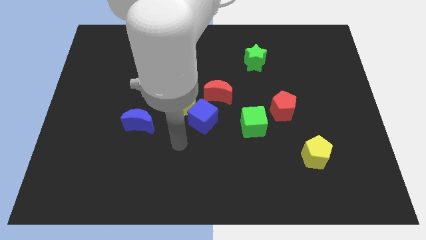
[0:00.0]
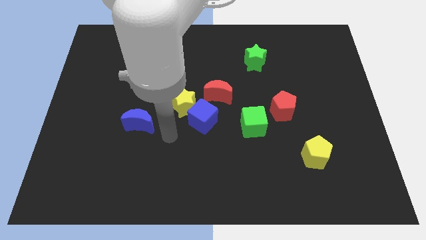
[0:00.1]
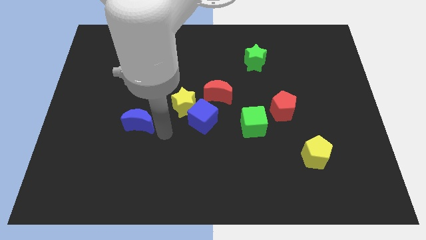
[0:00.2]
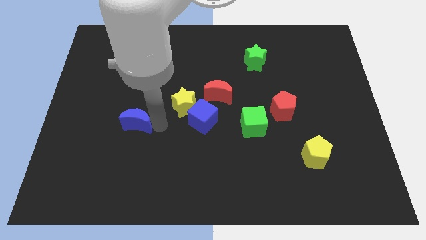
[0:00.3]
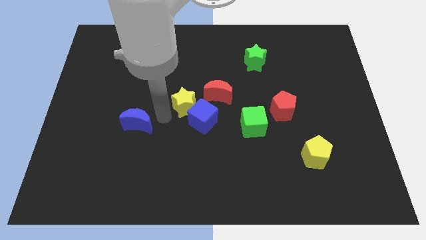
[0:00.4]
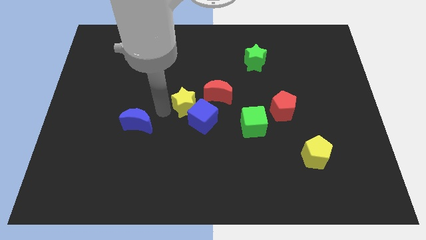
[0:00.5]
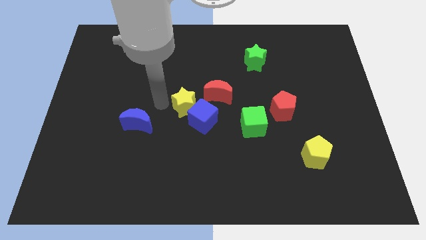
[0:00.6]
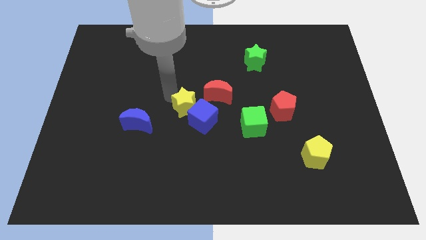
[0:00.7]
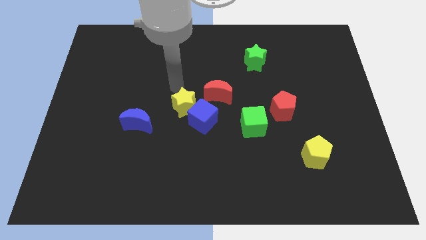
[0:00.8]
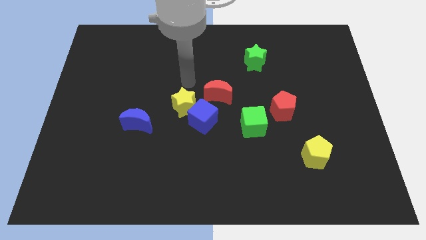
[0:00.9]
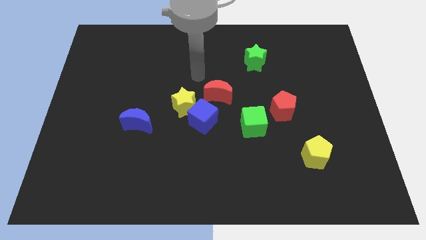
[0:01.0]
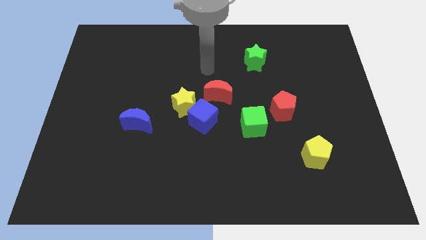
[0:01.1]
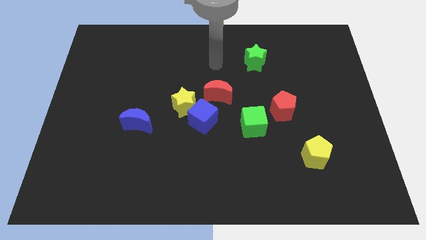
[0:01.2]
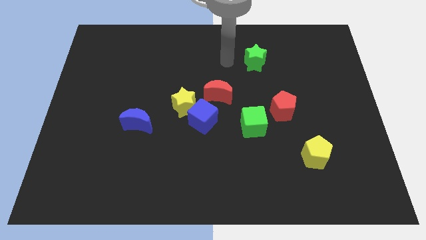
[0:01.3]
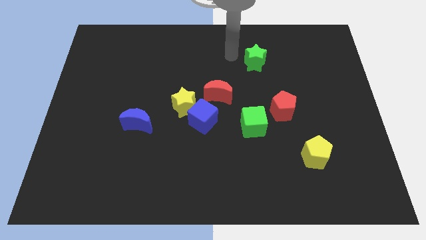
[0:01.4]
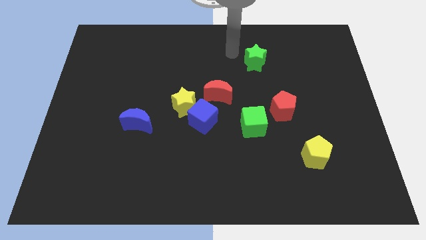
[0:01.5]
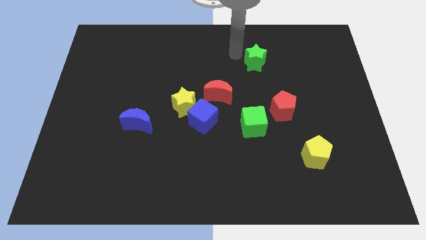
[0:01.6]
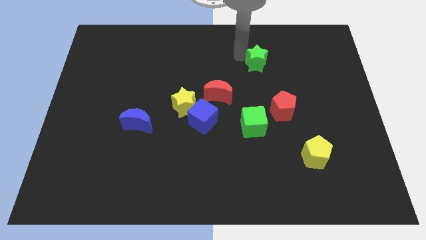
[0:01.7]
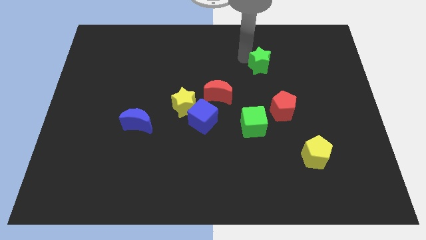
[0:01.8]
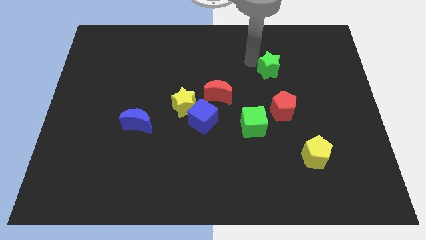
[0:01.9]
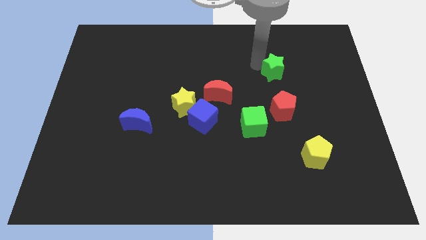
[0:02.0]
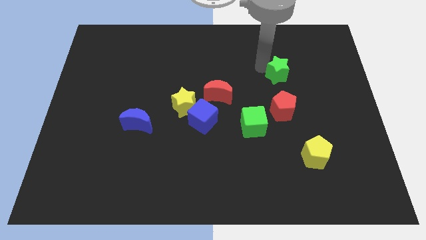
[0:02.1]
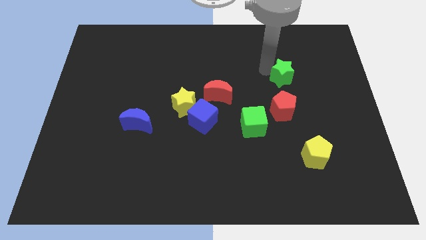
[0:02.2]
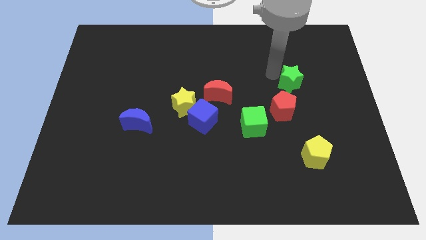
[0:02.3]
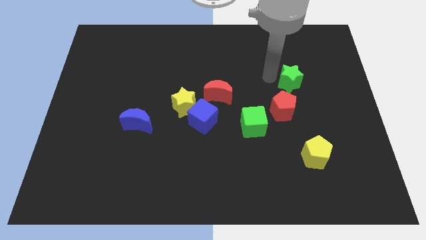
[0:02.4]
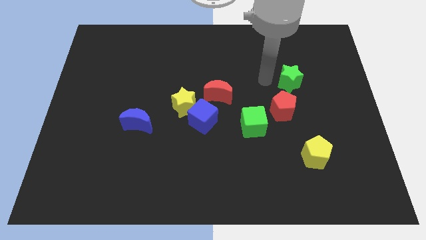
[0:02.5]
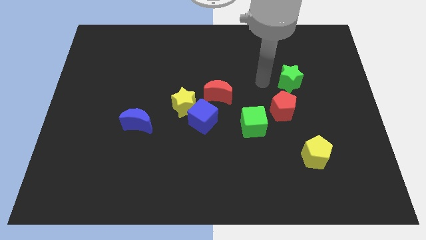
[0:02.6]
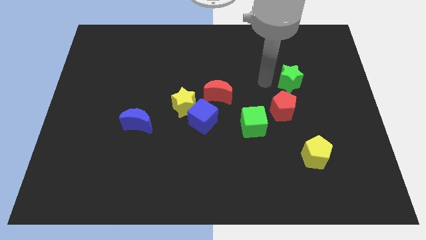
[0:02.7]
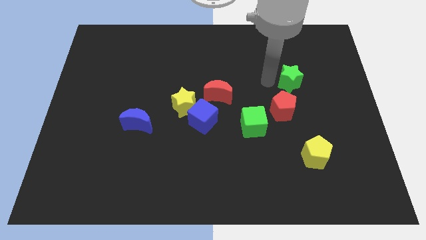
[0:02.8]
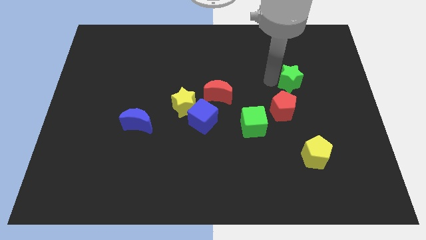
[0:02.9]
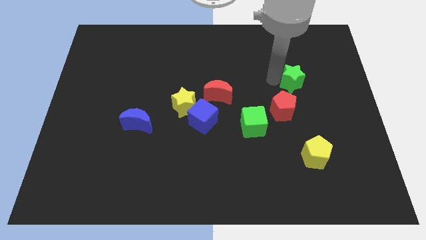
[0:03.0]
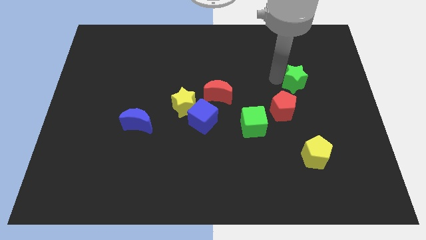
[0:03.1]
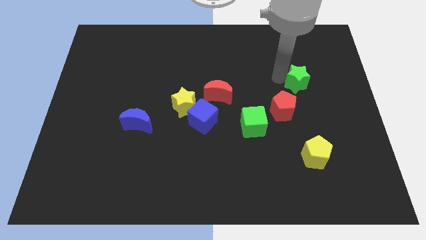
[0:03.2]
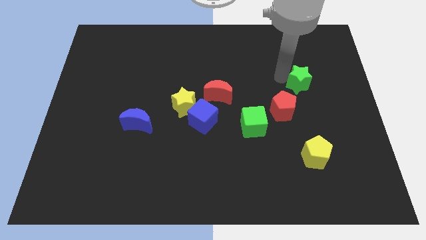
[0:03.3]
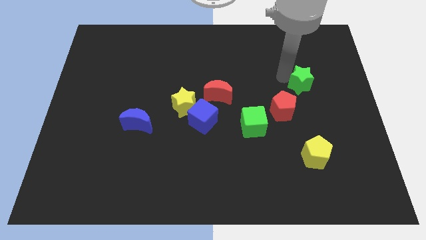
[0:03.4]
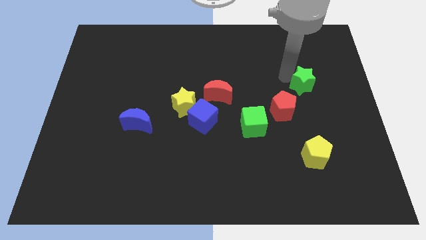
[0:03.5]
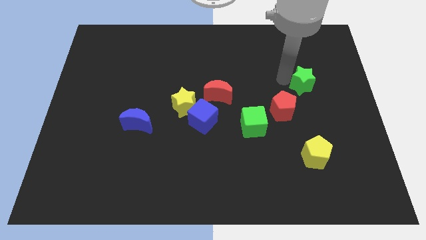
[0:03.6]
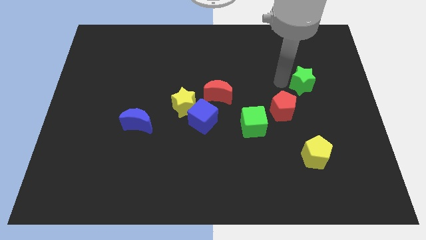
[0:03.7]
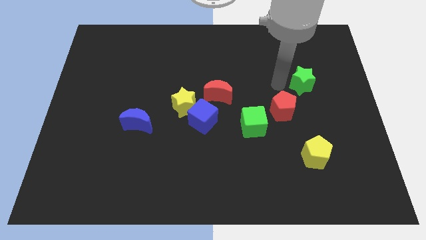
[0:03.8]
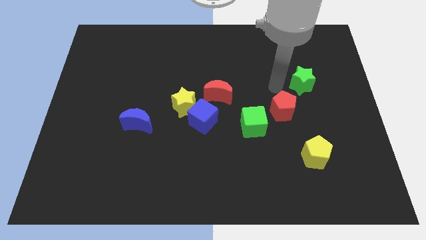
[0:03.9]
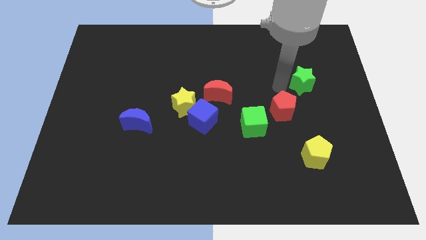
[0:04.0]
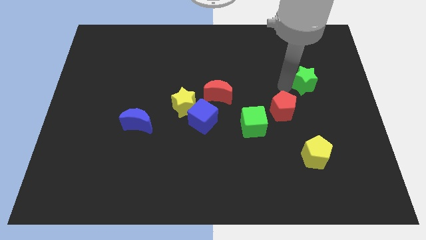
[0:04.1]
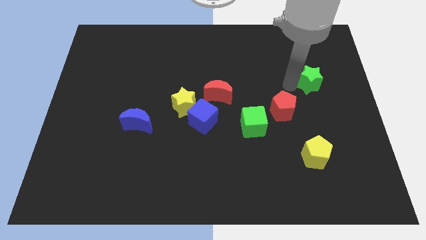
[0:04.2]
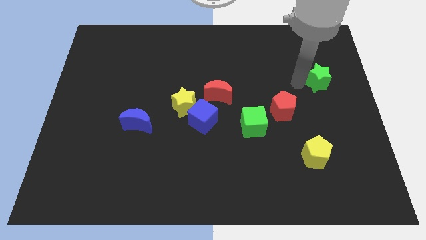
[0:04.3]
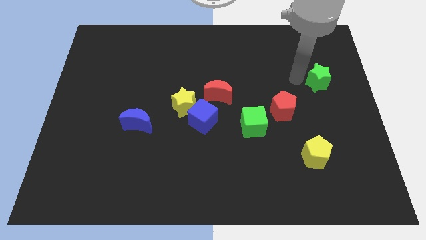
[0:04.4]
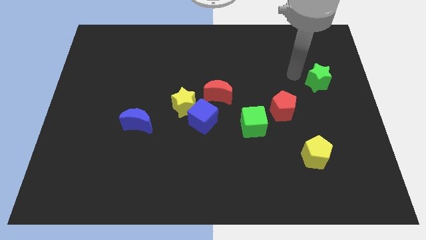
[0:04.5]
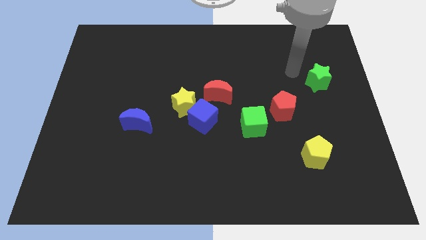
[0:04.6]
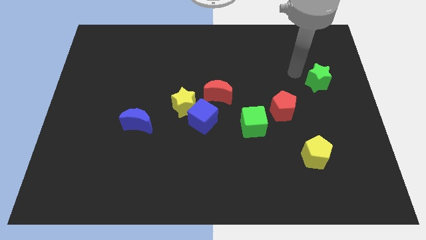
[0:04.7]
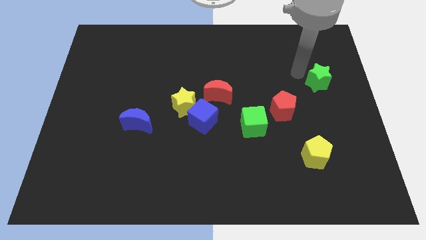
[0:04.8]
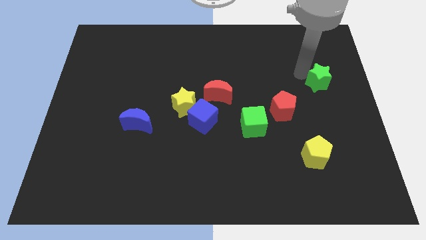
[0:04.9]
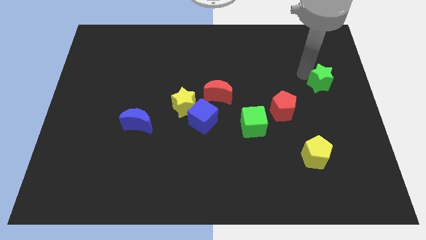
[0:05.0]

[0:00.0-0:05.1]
push the green star to the center right

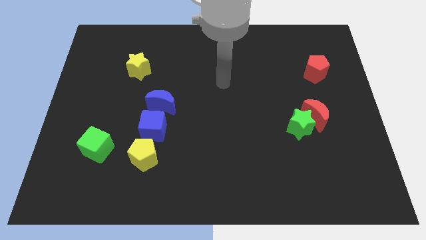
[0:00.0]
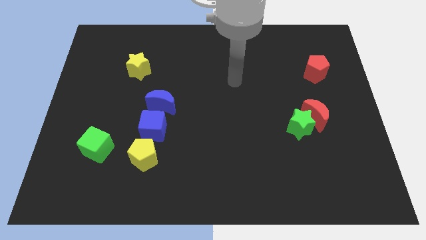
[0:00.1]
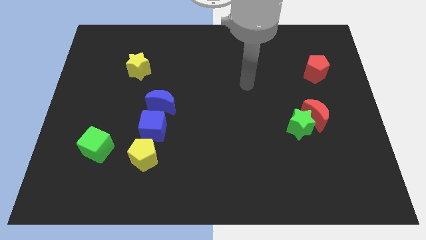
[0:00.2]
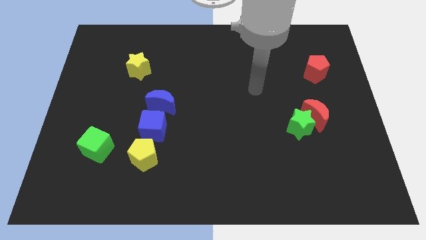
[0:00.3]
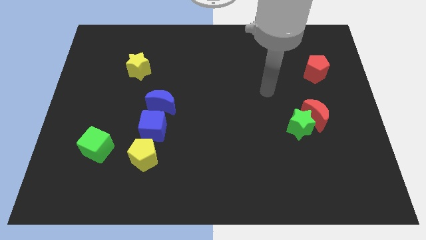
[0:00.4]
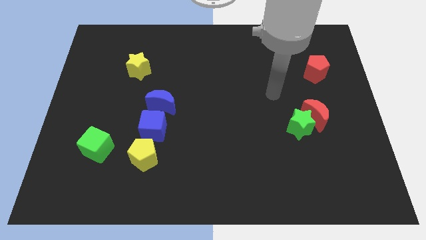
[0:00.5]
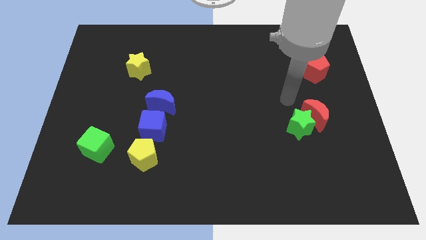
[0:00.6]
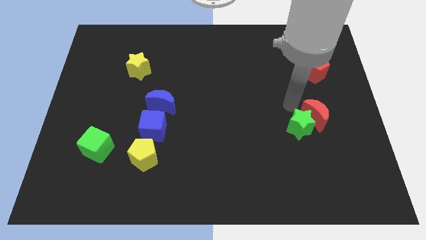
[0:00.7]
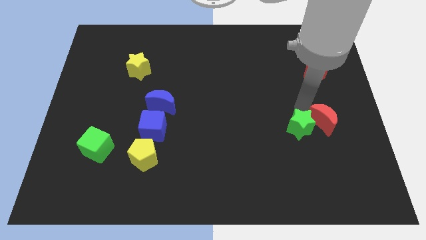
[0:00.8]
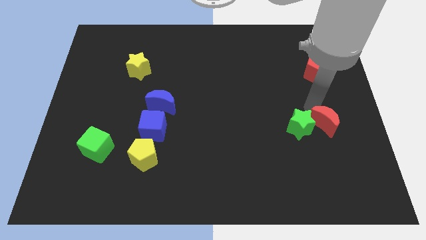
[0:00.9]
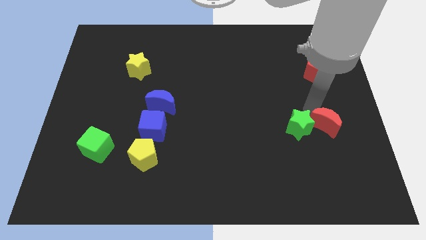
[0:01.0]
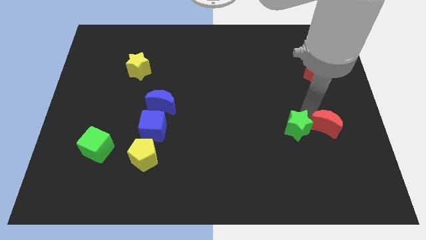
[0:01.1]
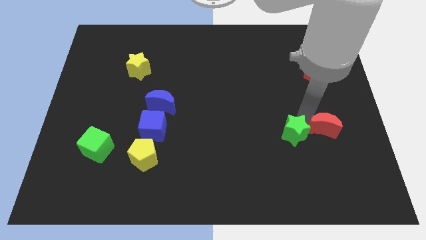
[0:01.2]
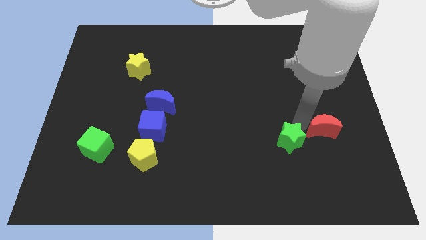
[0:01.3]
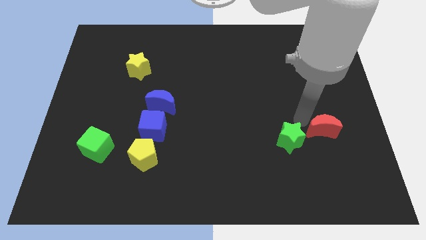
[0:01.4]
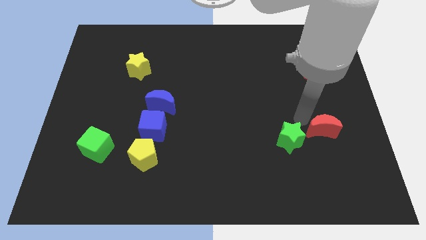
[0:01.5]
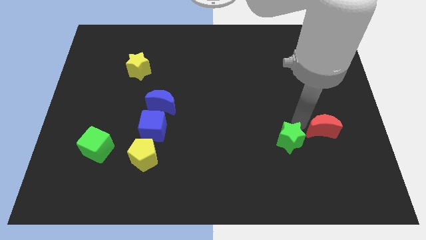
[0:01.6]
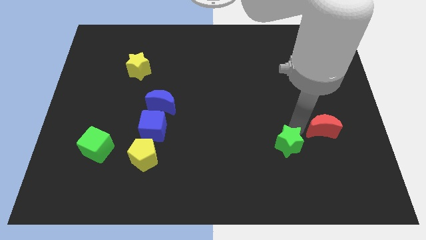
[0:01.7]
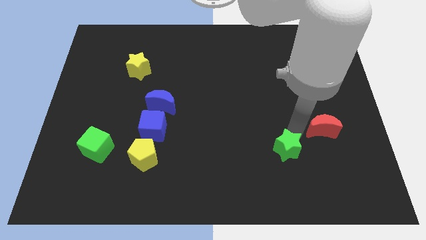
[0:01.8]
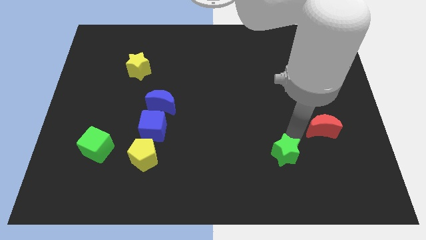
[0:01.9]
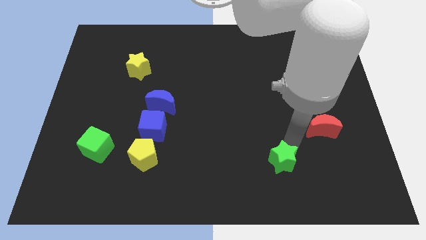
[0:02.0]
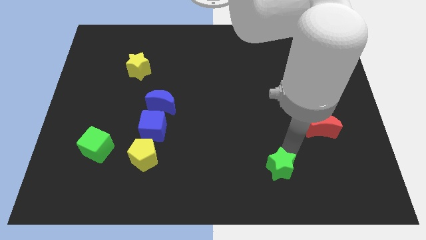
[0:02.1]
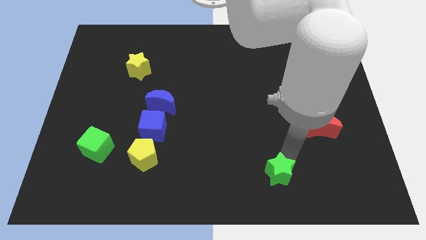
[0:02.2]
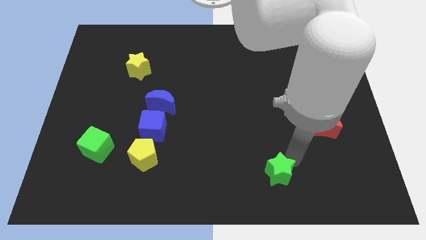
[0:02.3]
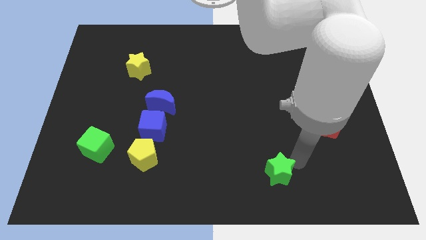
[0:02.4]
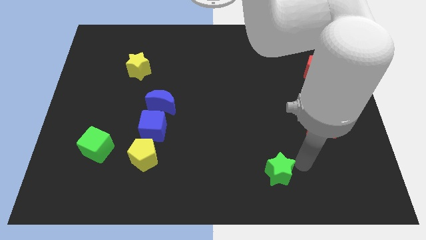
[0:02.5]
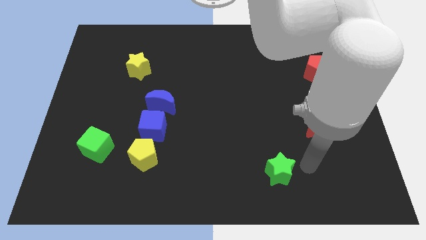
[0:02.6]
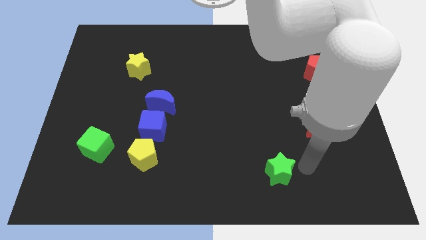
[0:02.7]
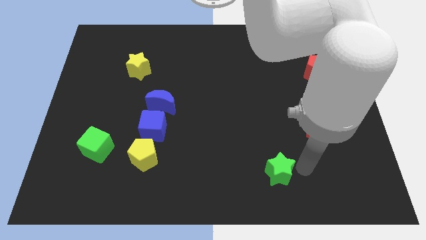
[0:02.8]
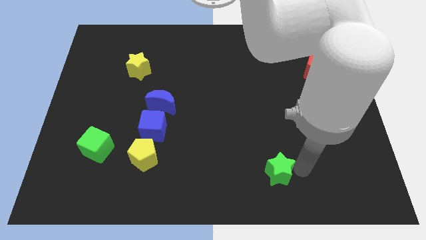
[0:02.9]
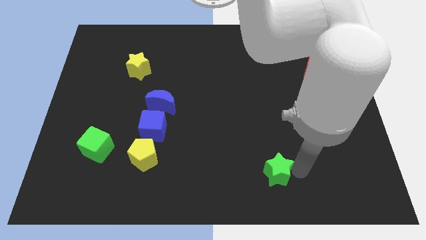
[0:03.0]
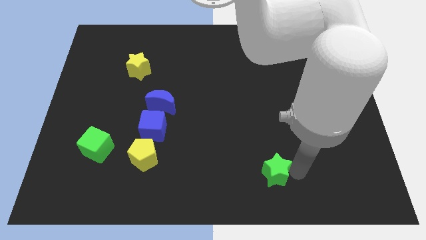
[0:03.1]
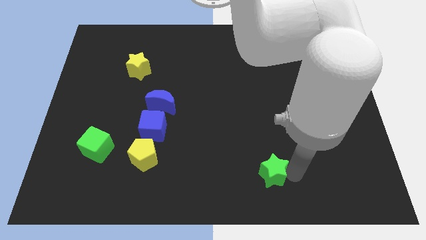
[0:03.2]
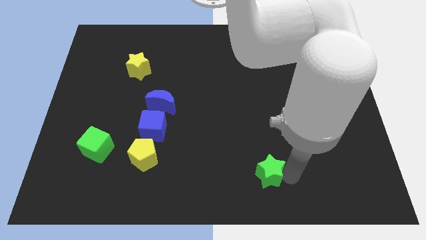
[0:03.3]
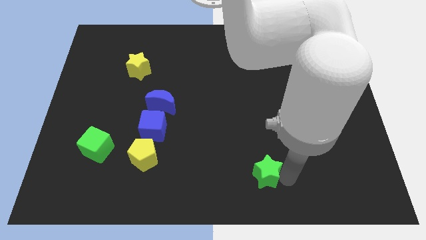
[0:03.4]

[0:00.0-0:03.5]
slide the green star to the bottom
